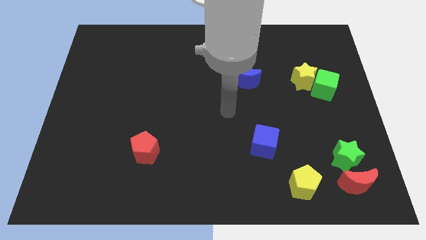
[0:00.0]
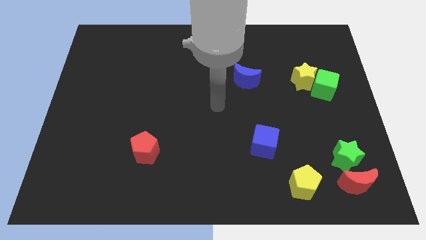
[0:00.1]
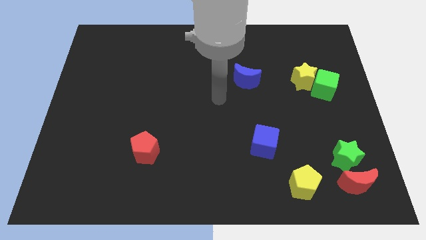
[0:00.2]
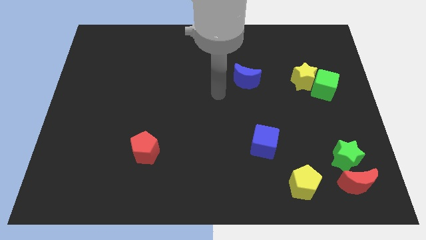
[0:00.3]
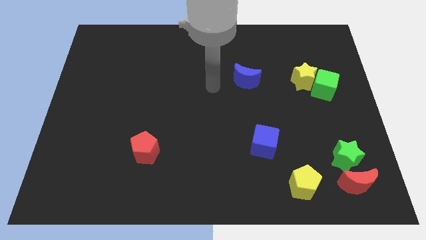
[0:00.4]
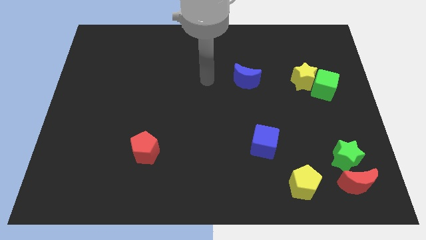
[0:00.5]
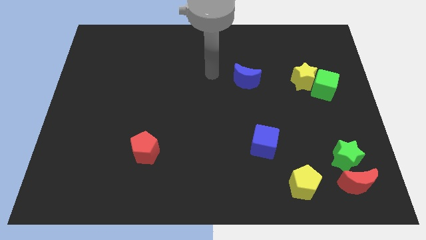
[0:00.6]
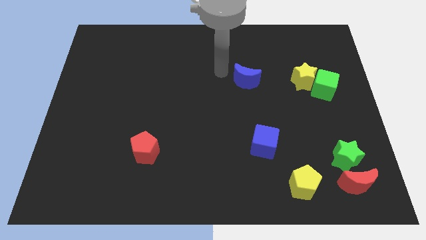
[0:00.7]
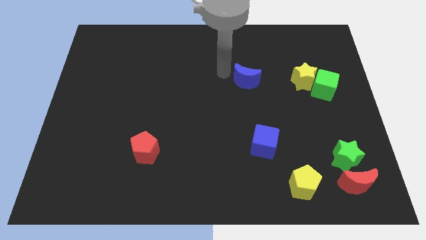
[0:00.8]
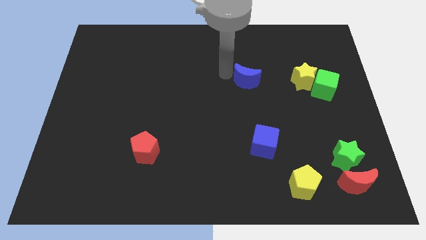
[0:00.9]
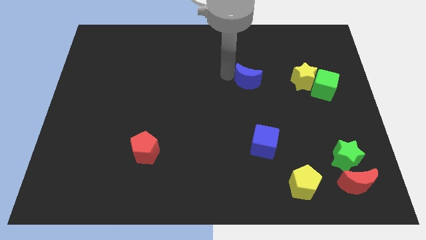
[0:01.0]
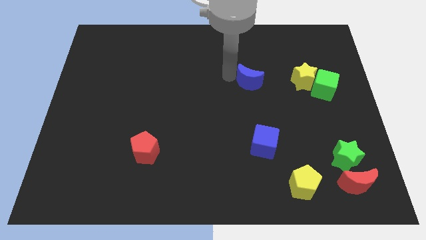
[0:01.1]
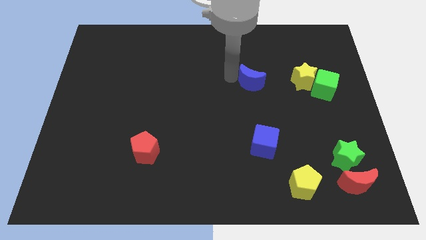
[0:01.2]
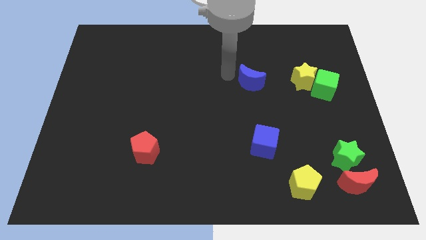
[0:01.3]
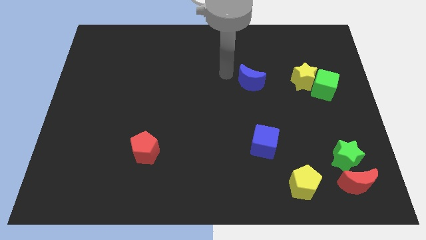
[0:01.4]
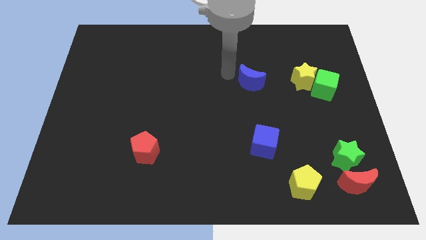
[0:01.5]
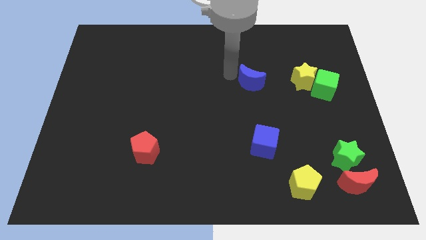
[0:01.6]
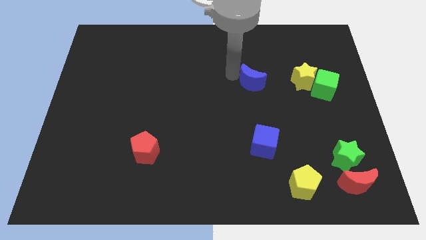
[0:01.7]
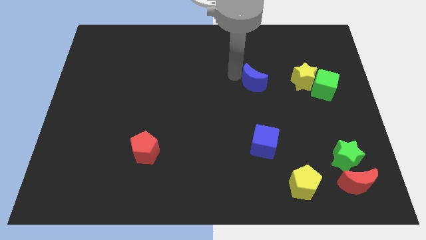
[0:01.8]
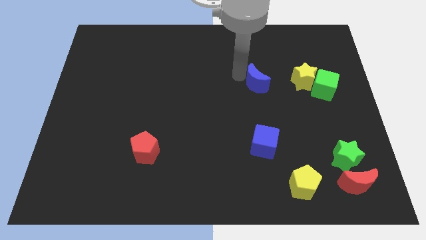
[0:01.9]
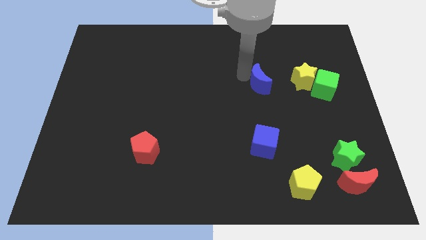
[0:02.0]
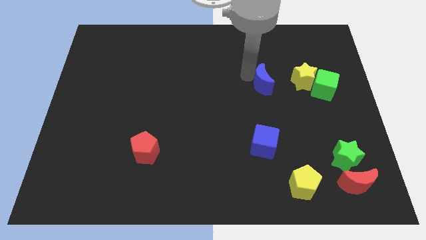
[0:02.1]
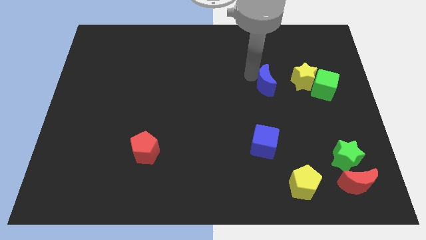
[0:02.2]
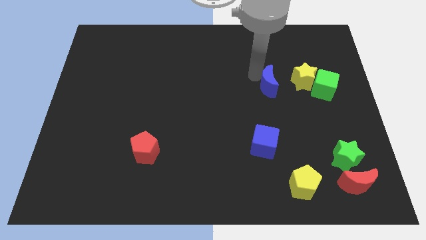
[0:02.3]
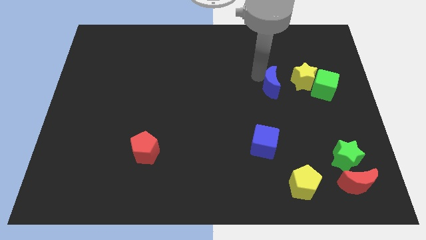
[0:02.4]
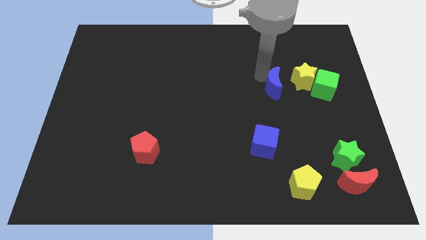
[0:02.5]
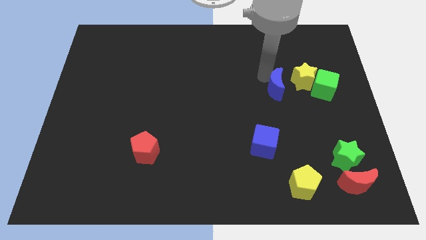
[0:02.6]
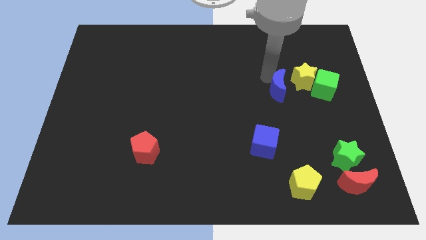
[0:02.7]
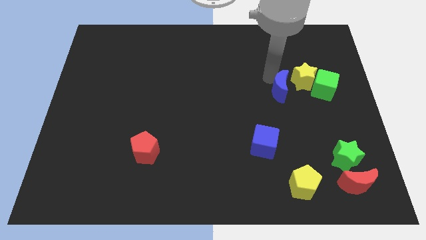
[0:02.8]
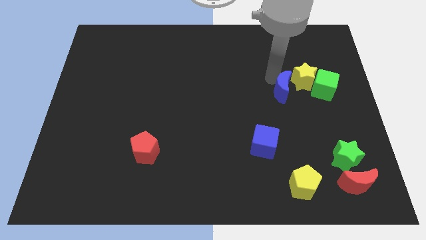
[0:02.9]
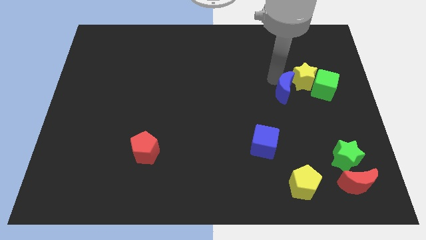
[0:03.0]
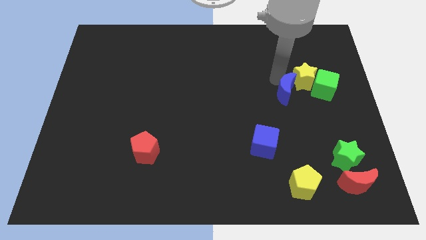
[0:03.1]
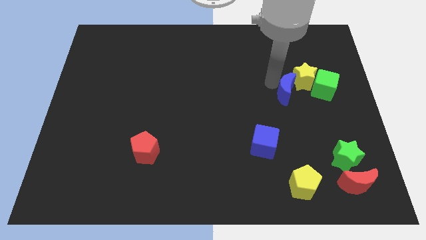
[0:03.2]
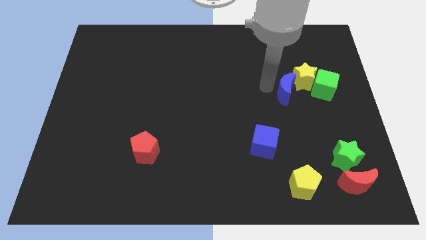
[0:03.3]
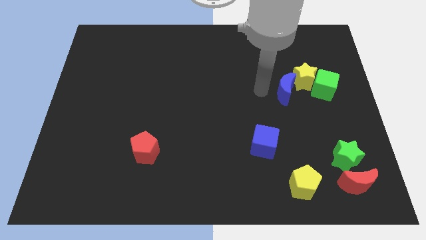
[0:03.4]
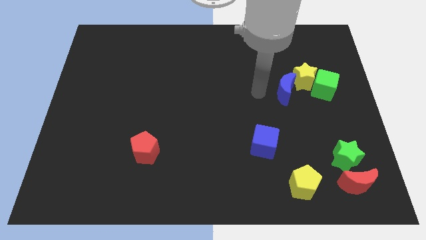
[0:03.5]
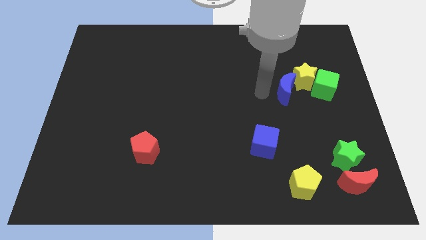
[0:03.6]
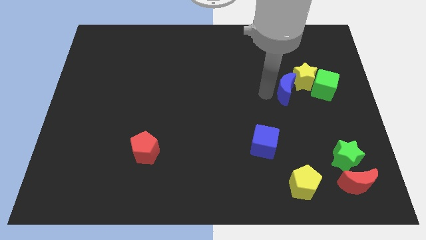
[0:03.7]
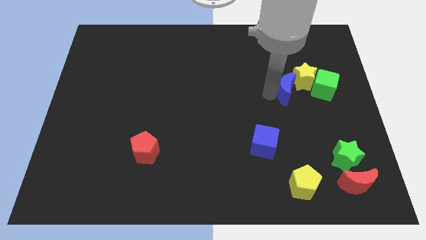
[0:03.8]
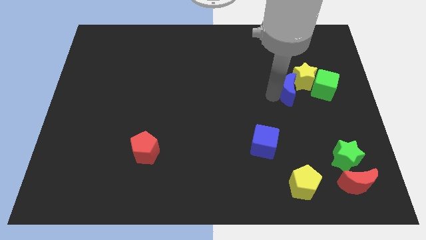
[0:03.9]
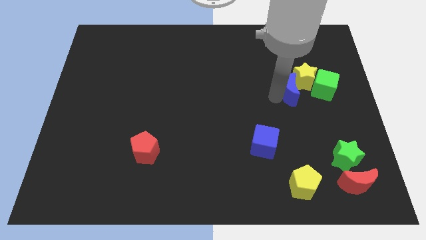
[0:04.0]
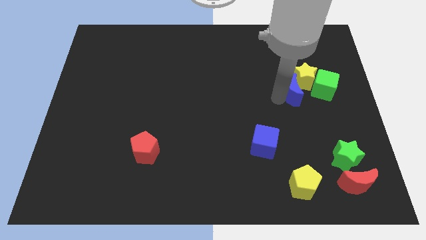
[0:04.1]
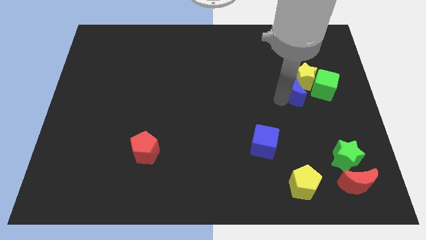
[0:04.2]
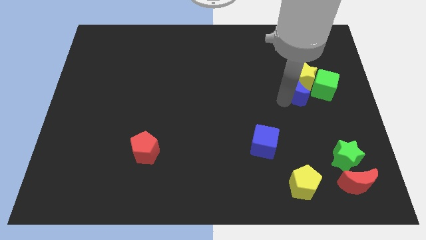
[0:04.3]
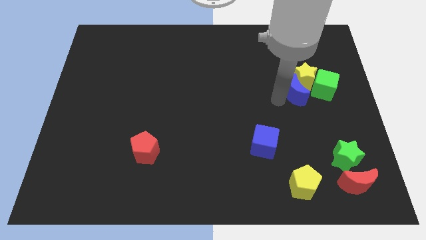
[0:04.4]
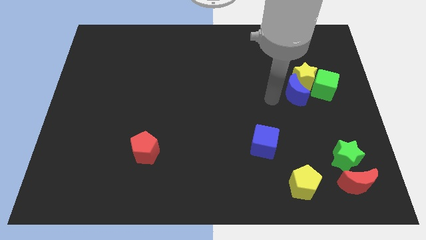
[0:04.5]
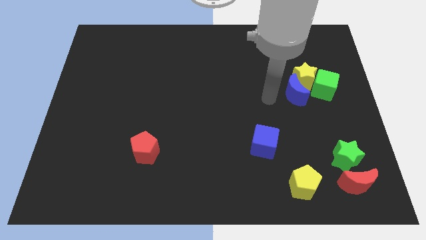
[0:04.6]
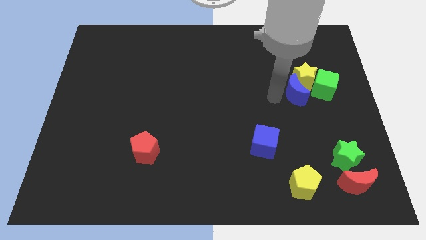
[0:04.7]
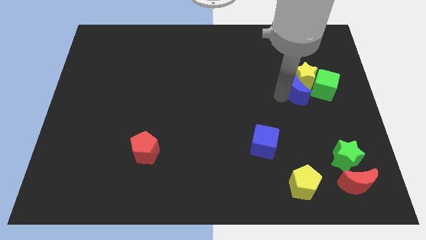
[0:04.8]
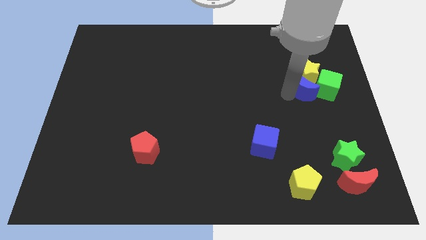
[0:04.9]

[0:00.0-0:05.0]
push the blue moon towards the green cube

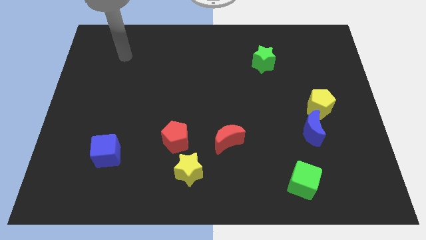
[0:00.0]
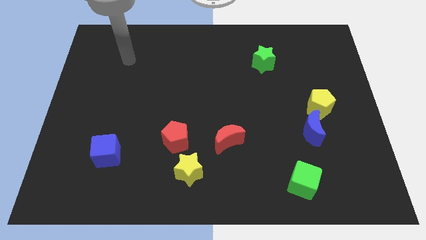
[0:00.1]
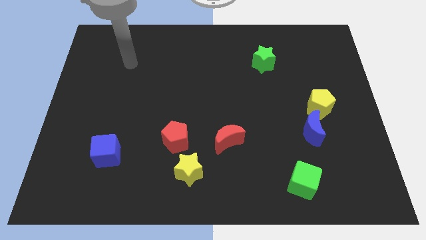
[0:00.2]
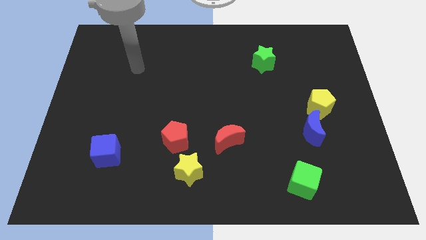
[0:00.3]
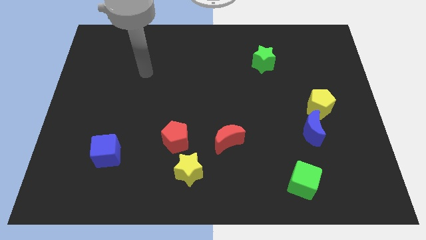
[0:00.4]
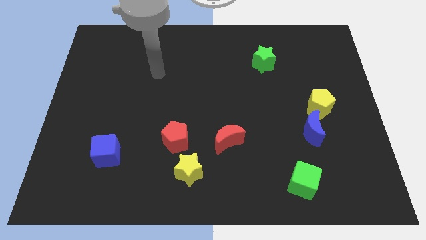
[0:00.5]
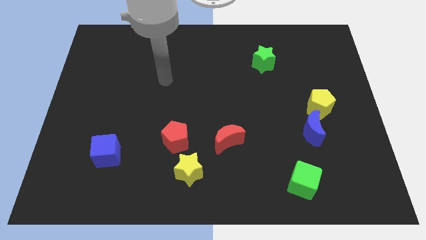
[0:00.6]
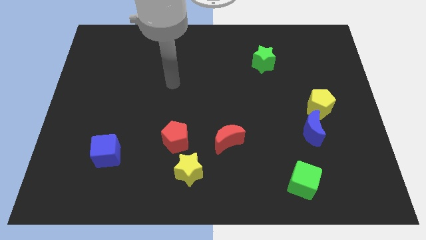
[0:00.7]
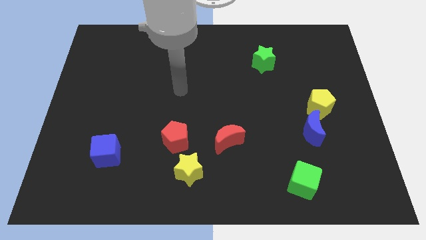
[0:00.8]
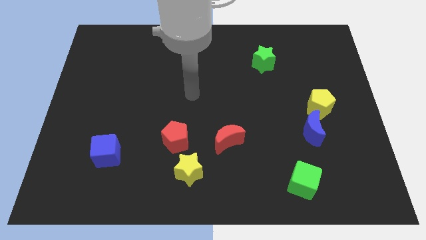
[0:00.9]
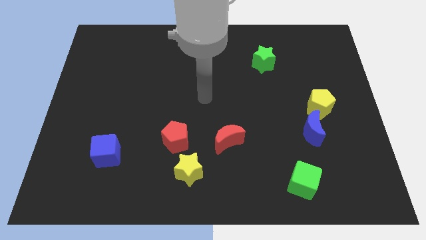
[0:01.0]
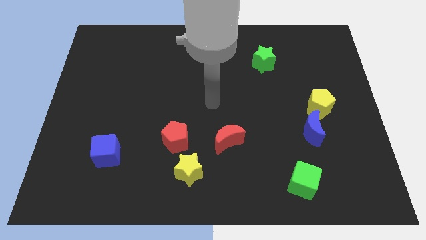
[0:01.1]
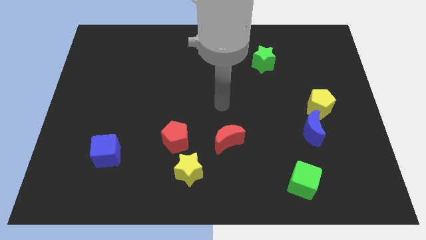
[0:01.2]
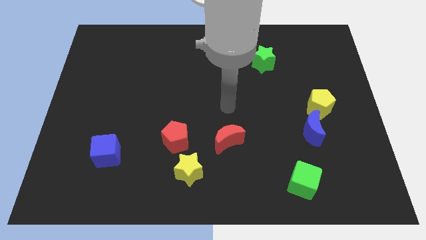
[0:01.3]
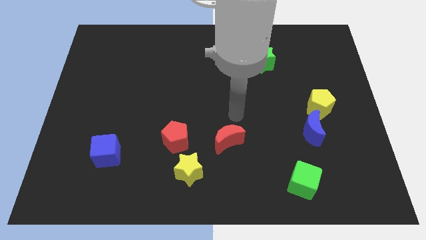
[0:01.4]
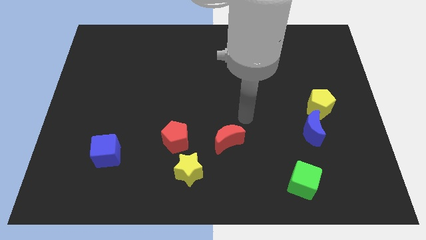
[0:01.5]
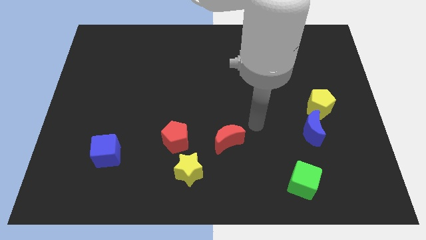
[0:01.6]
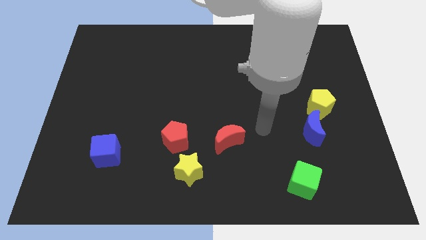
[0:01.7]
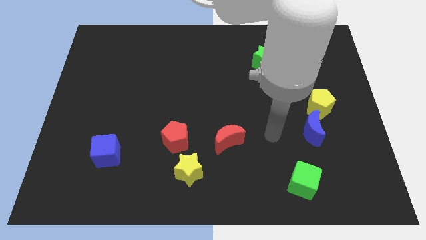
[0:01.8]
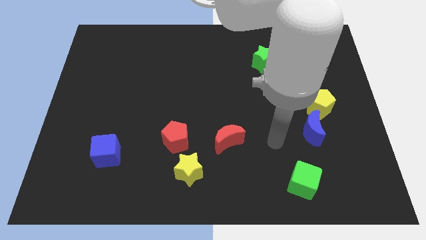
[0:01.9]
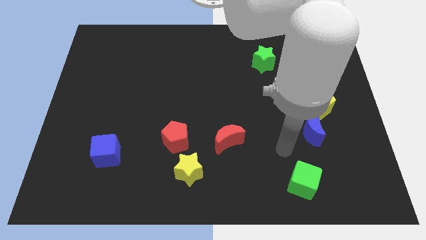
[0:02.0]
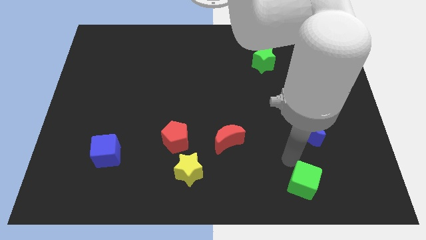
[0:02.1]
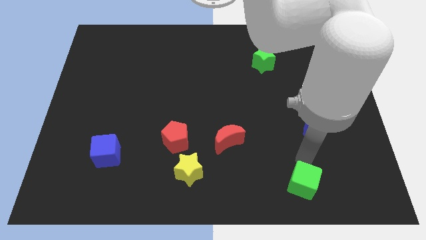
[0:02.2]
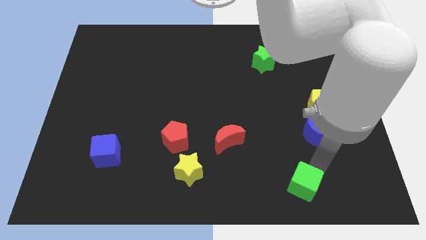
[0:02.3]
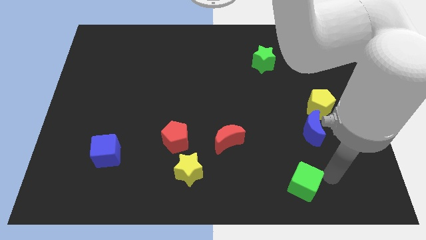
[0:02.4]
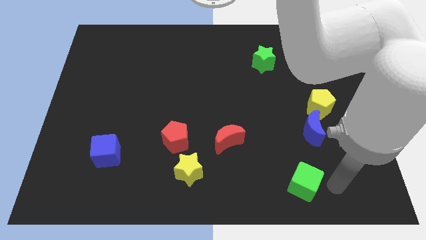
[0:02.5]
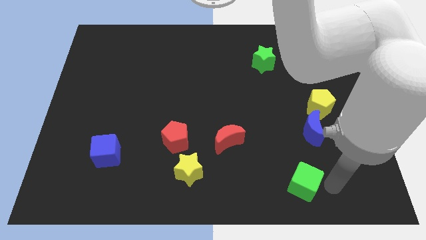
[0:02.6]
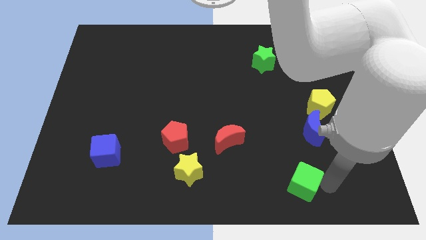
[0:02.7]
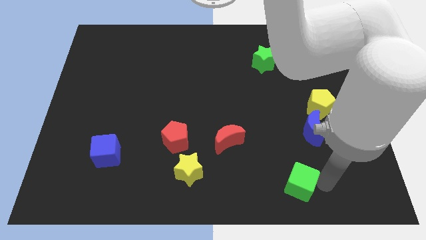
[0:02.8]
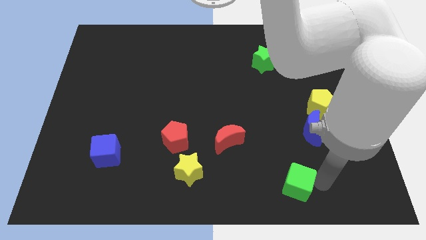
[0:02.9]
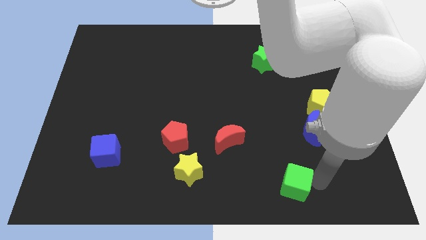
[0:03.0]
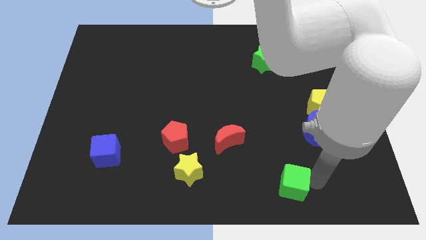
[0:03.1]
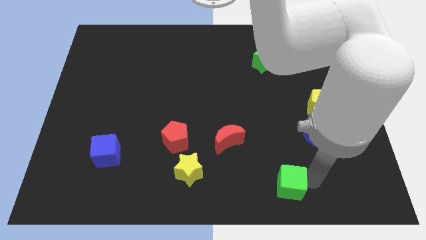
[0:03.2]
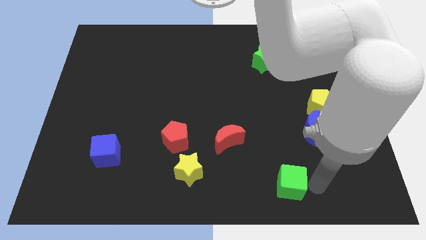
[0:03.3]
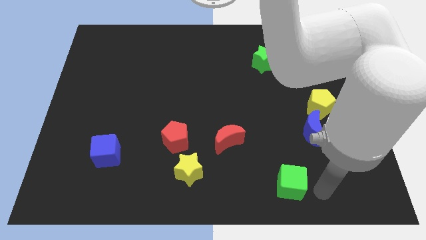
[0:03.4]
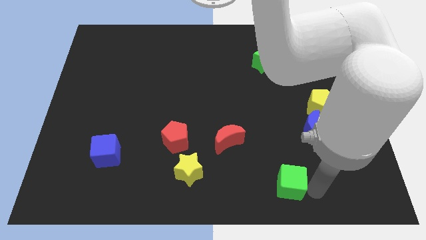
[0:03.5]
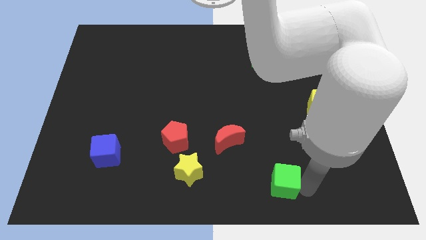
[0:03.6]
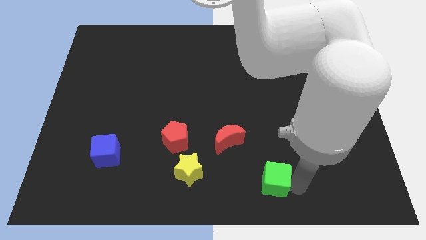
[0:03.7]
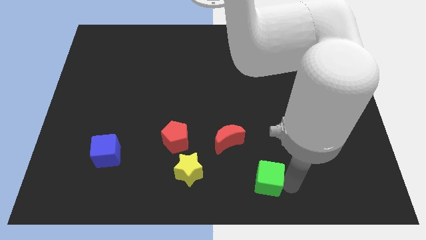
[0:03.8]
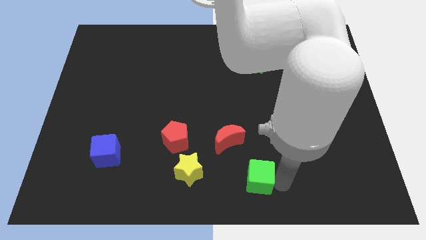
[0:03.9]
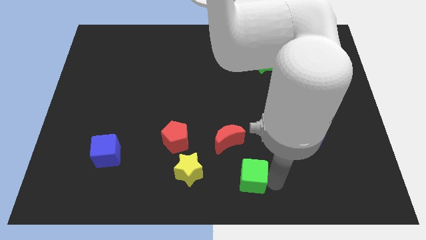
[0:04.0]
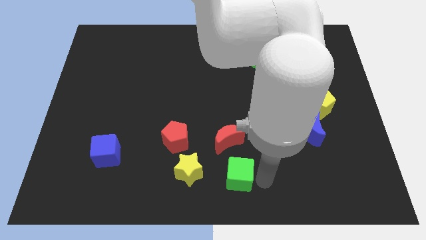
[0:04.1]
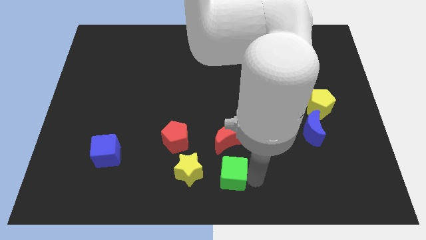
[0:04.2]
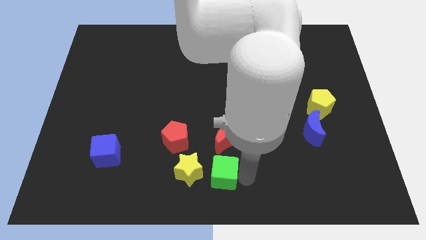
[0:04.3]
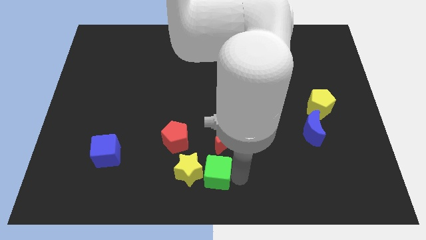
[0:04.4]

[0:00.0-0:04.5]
move the green cube next to the yellow star
